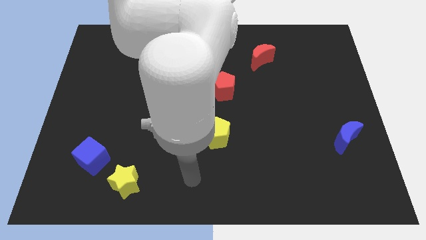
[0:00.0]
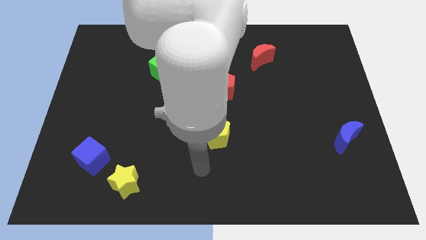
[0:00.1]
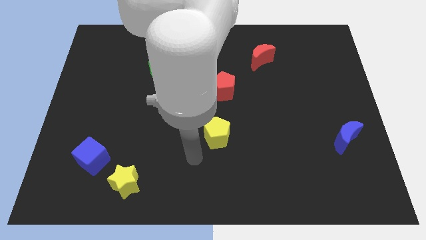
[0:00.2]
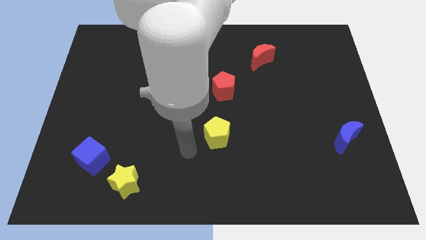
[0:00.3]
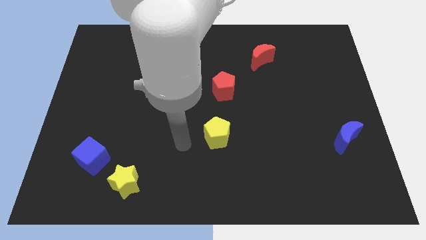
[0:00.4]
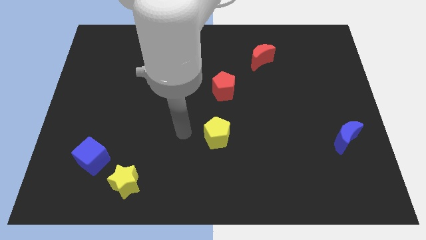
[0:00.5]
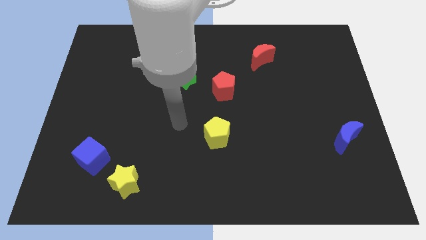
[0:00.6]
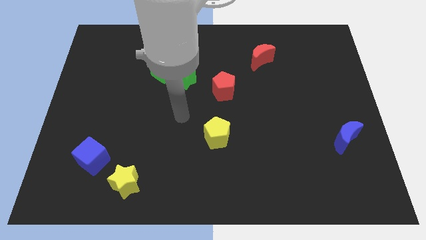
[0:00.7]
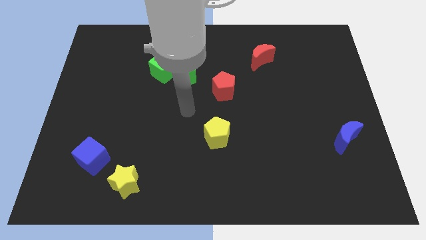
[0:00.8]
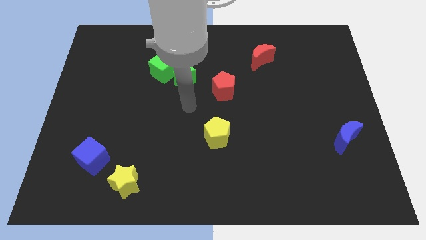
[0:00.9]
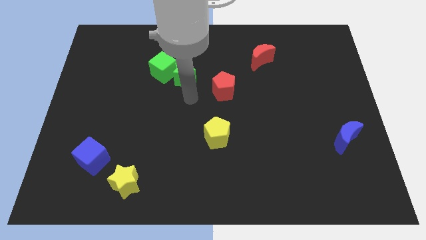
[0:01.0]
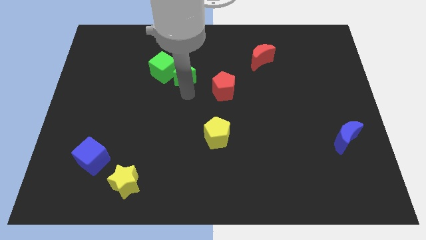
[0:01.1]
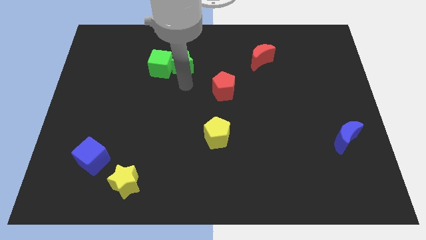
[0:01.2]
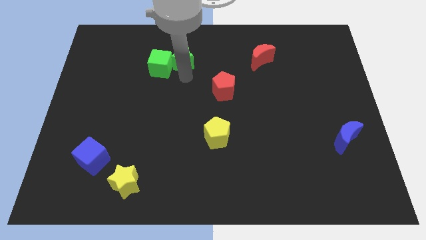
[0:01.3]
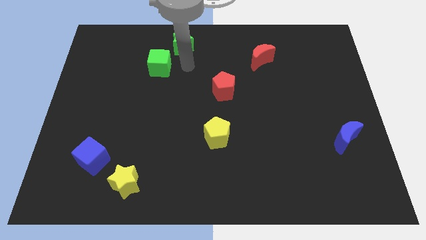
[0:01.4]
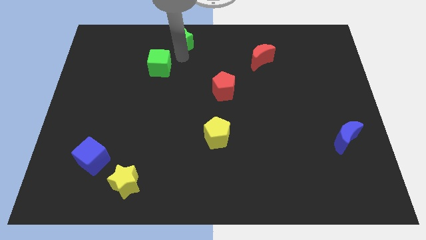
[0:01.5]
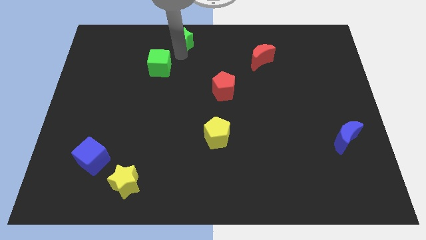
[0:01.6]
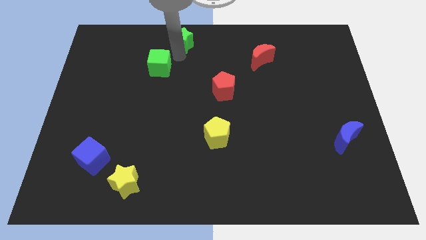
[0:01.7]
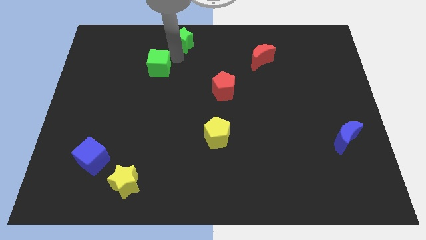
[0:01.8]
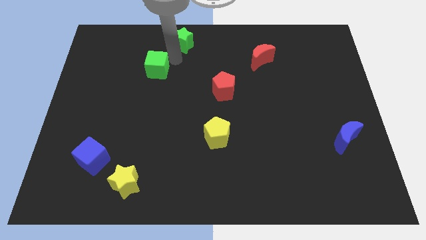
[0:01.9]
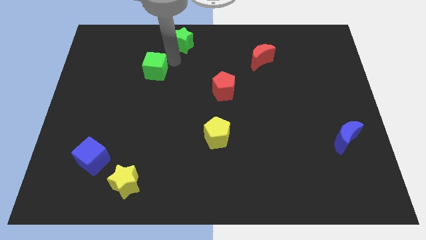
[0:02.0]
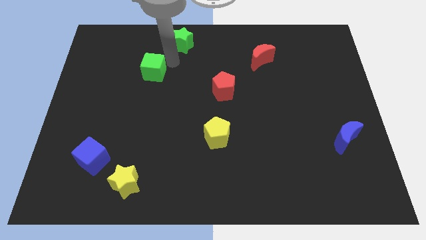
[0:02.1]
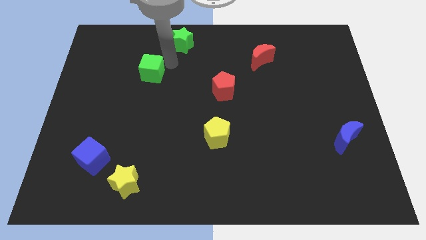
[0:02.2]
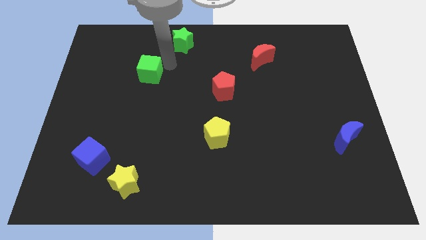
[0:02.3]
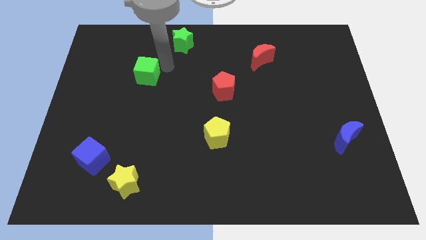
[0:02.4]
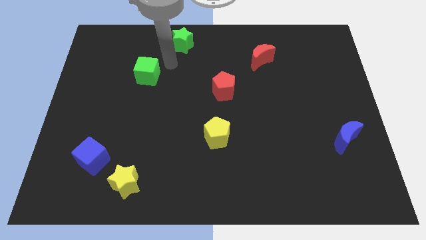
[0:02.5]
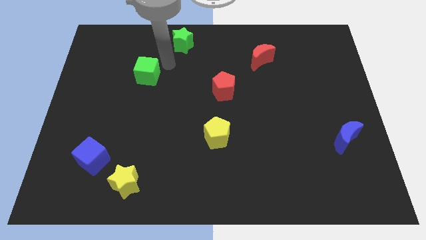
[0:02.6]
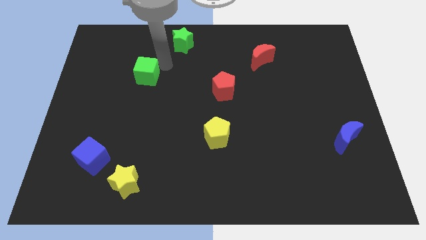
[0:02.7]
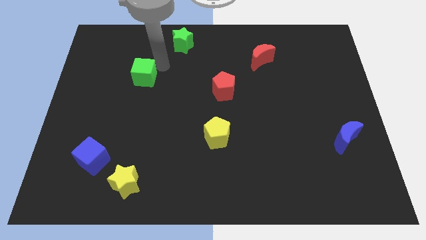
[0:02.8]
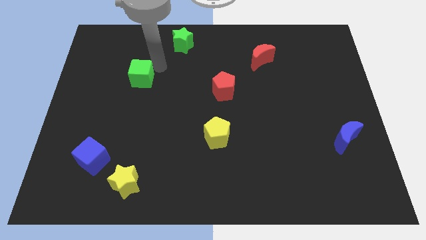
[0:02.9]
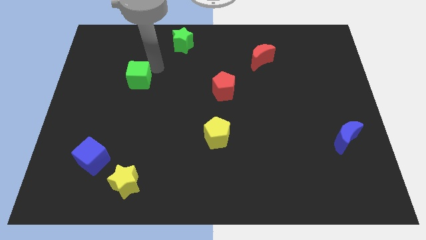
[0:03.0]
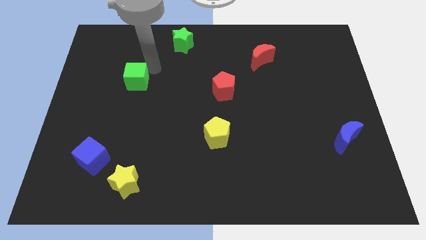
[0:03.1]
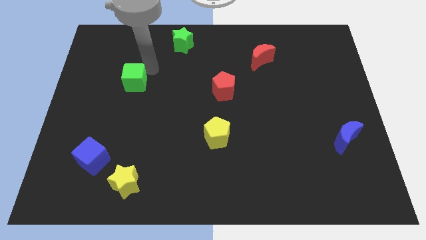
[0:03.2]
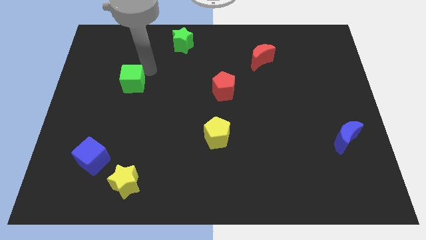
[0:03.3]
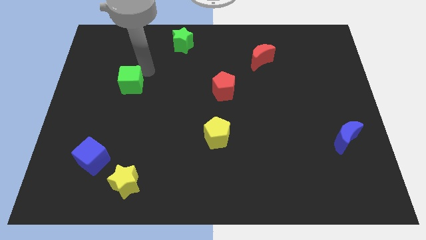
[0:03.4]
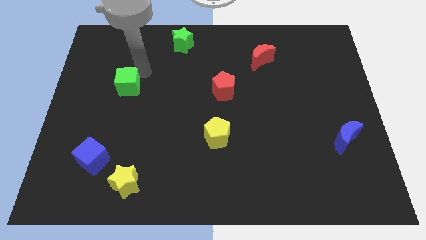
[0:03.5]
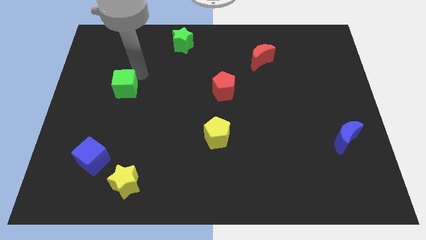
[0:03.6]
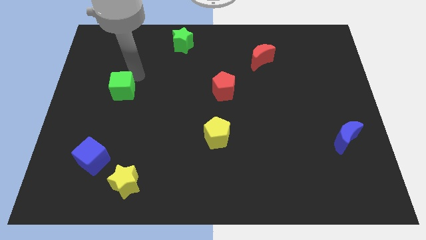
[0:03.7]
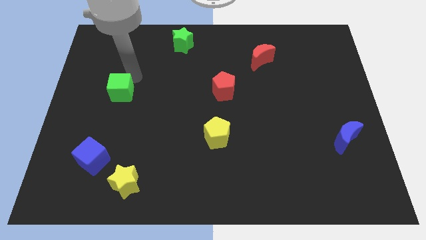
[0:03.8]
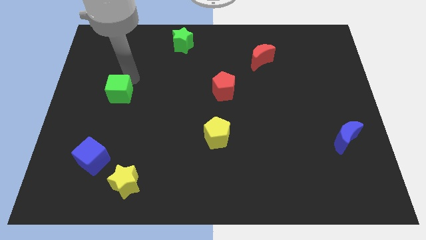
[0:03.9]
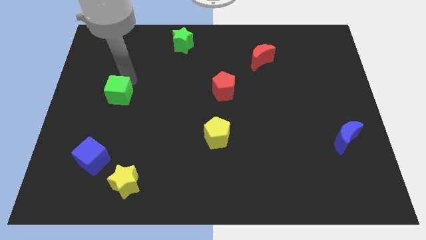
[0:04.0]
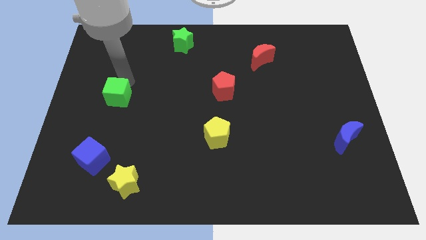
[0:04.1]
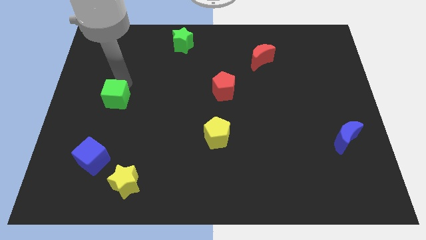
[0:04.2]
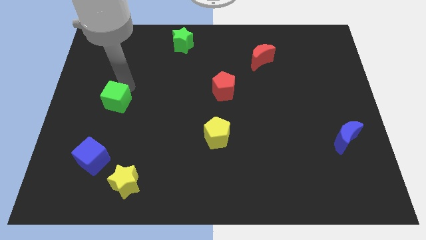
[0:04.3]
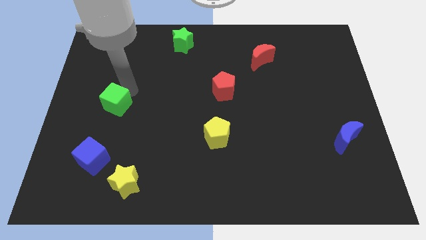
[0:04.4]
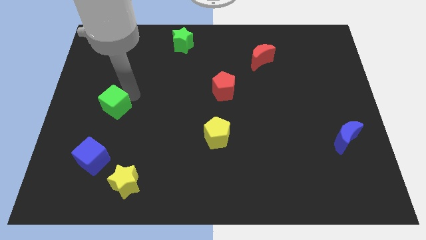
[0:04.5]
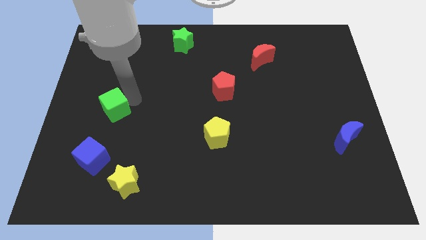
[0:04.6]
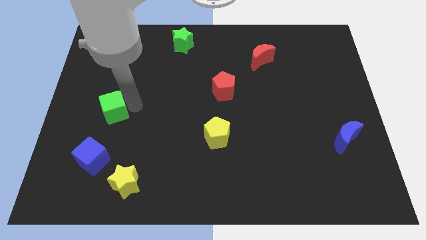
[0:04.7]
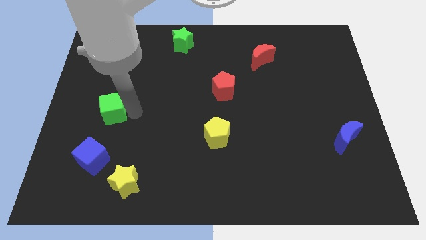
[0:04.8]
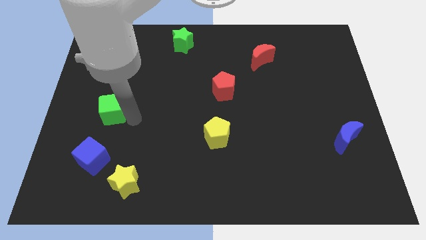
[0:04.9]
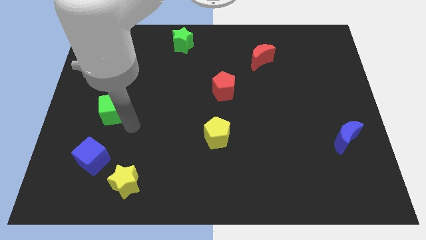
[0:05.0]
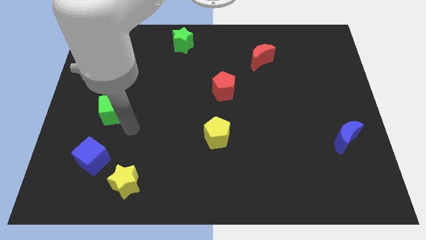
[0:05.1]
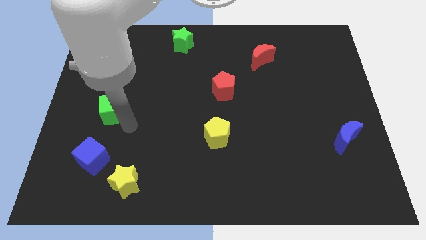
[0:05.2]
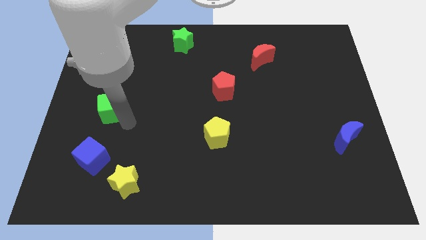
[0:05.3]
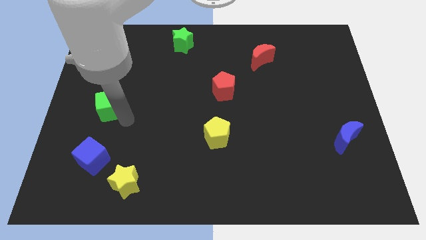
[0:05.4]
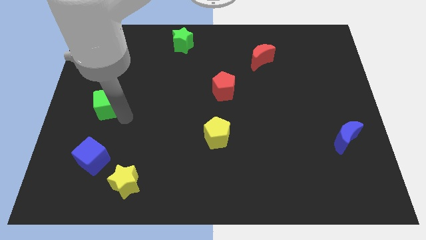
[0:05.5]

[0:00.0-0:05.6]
put the green cube to the center left
